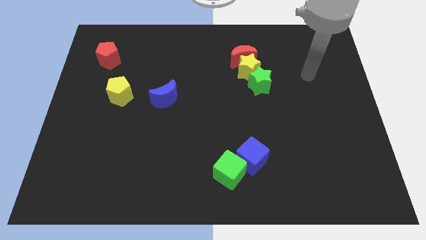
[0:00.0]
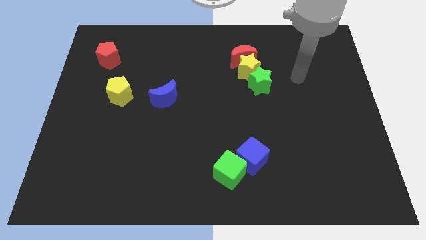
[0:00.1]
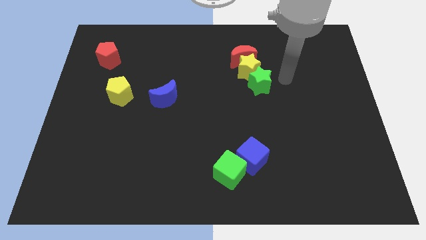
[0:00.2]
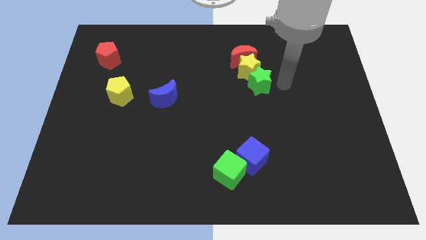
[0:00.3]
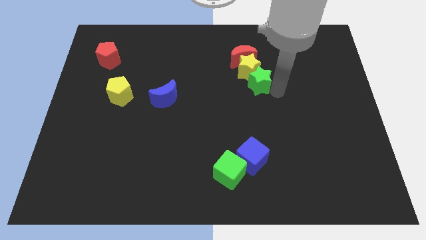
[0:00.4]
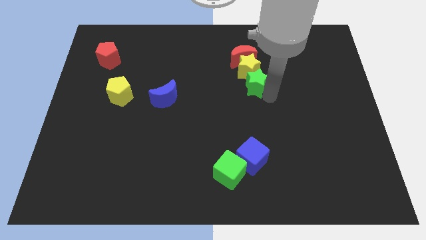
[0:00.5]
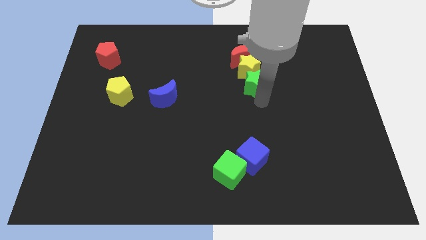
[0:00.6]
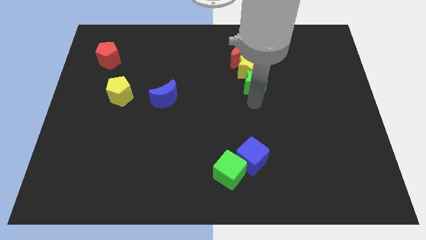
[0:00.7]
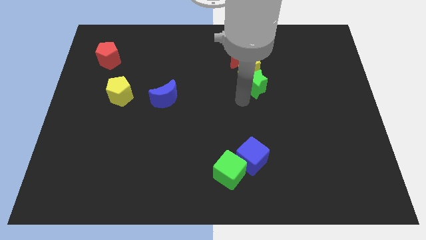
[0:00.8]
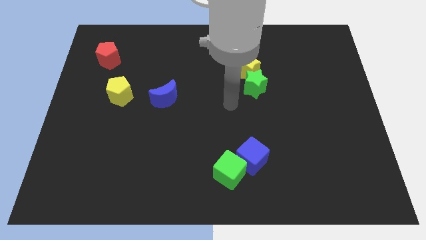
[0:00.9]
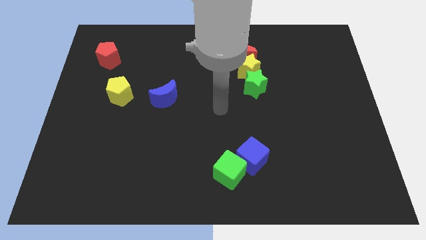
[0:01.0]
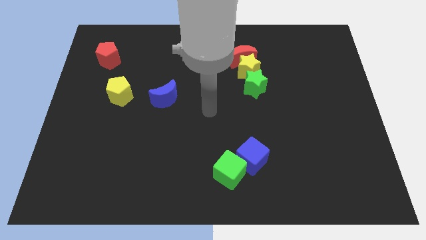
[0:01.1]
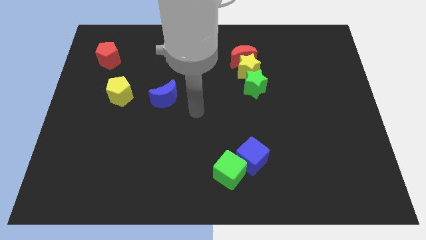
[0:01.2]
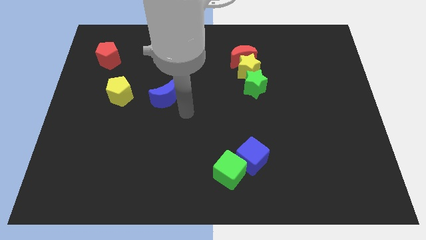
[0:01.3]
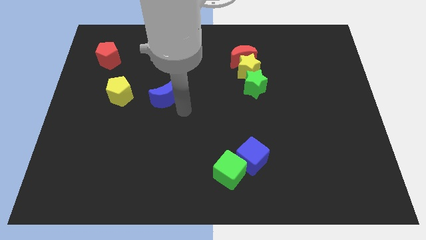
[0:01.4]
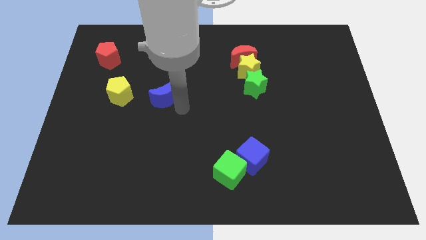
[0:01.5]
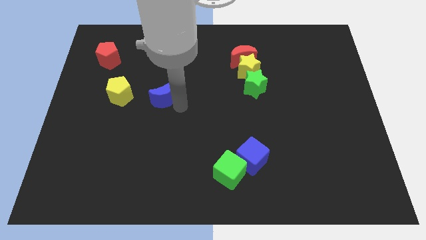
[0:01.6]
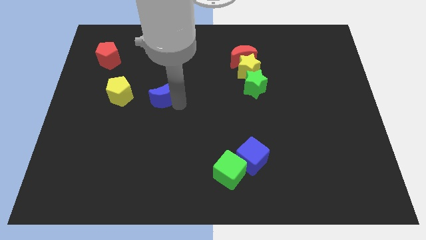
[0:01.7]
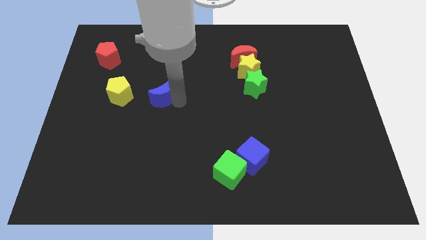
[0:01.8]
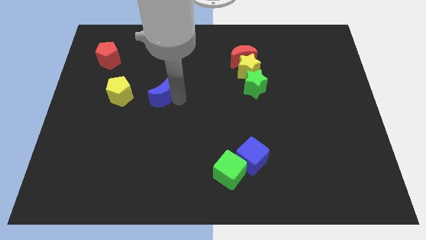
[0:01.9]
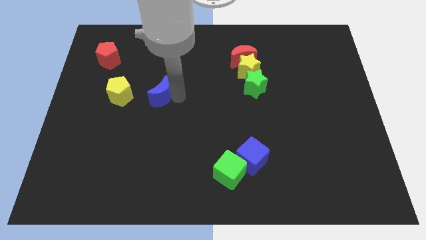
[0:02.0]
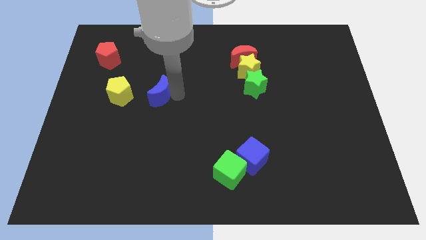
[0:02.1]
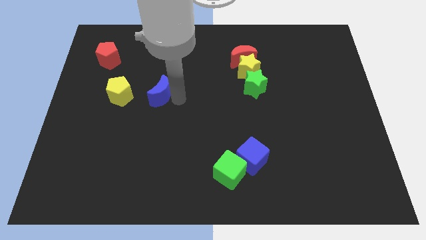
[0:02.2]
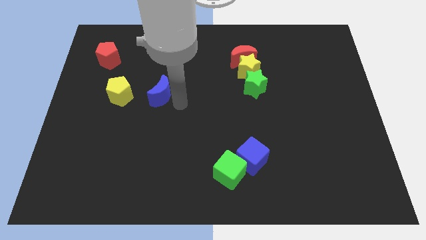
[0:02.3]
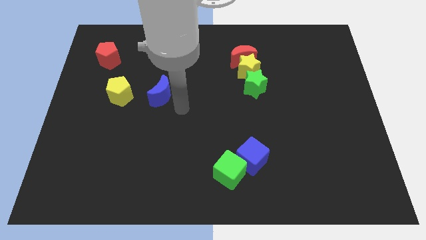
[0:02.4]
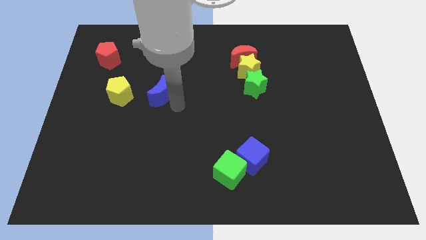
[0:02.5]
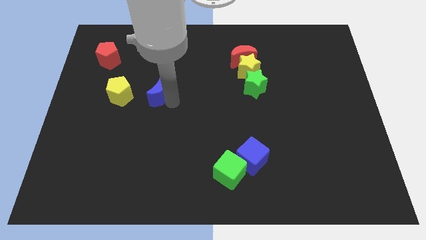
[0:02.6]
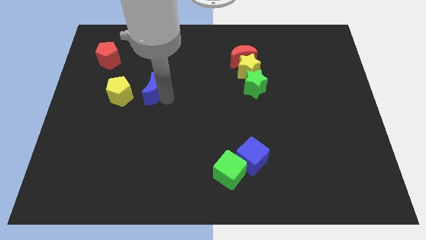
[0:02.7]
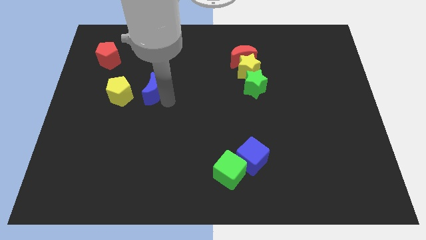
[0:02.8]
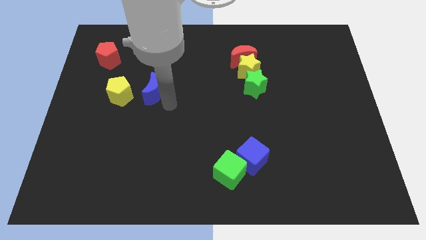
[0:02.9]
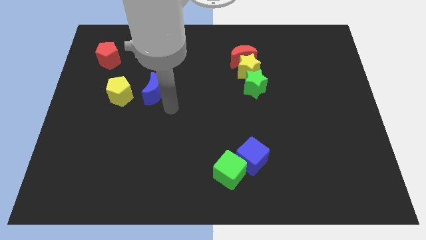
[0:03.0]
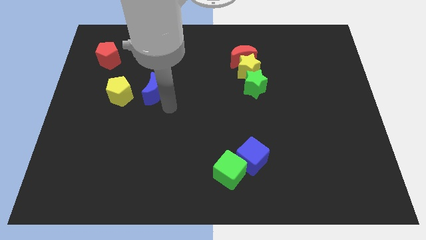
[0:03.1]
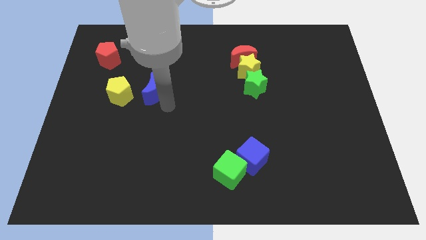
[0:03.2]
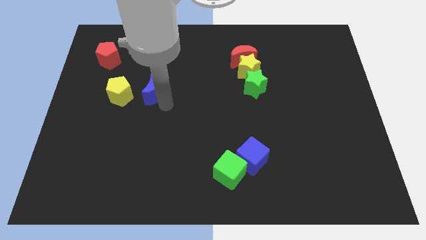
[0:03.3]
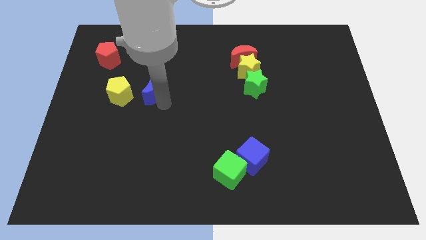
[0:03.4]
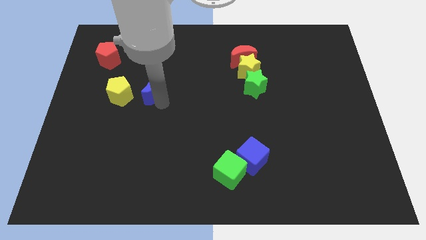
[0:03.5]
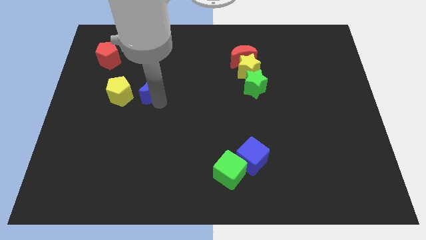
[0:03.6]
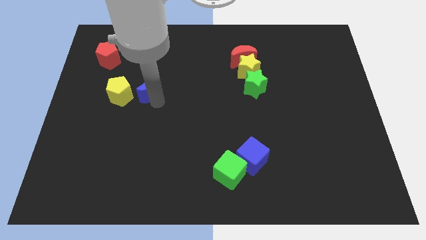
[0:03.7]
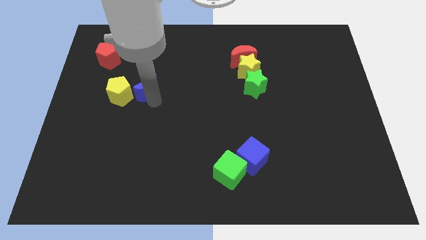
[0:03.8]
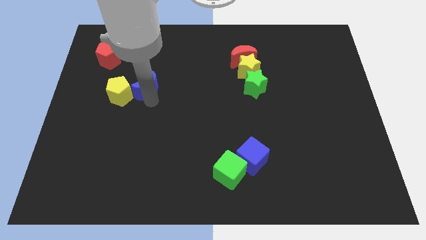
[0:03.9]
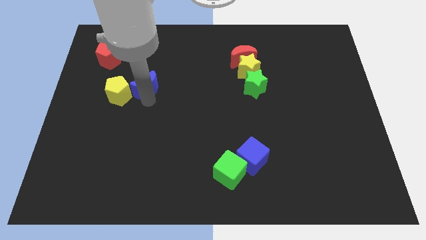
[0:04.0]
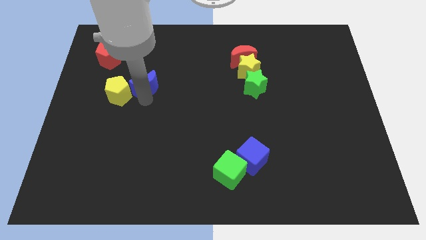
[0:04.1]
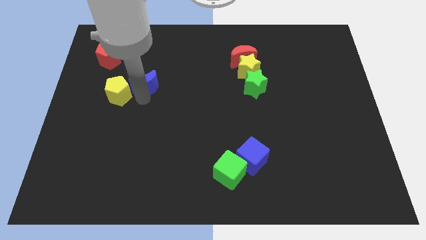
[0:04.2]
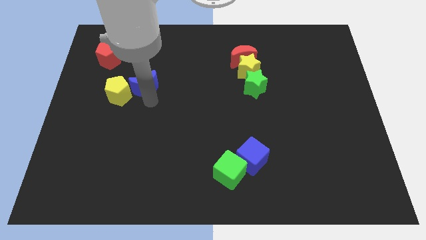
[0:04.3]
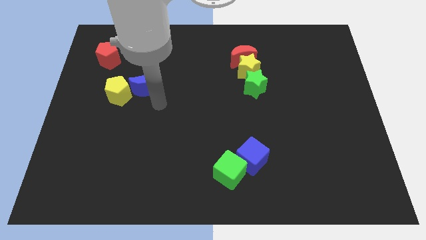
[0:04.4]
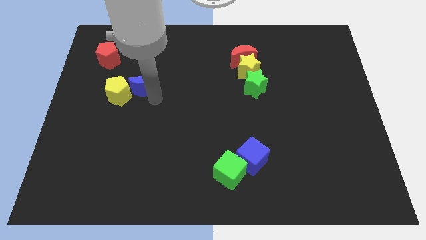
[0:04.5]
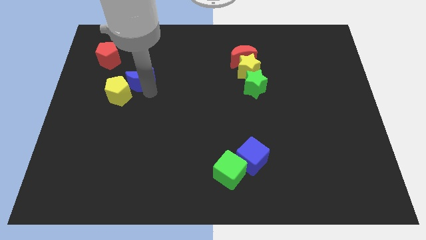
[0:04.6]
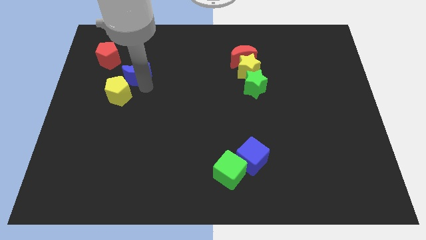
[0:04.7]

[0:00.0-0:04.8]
slide the blue moon to the top side of the yellow pentagon

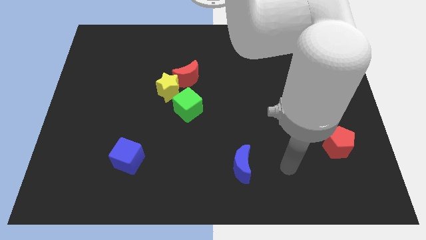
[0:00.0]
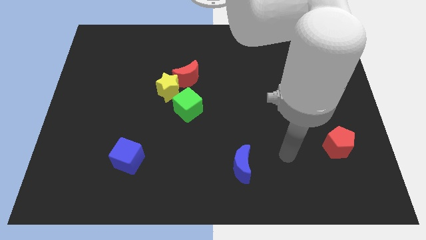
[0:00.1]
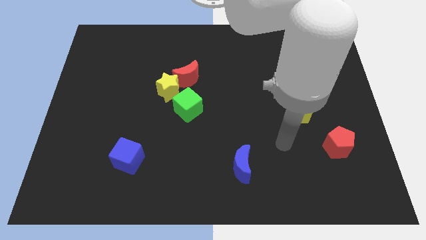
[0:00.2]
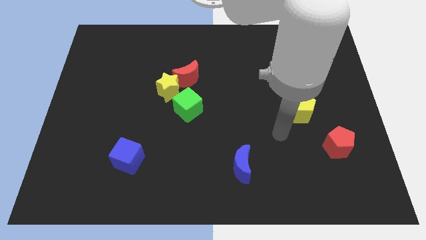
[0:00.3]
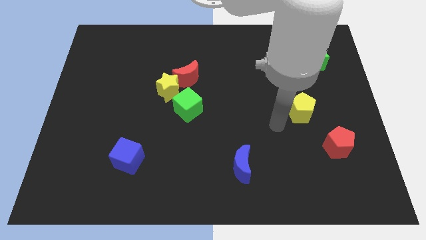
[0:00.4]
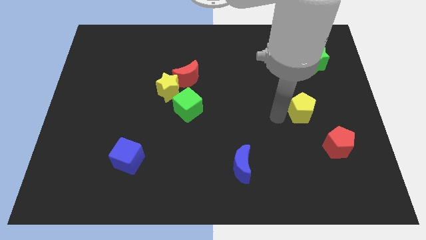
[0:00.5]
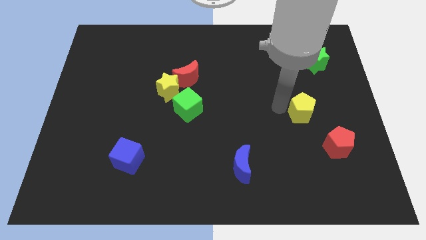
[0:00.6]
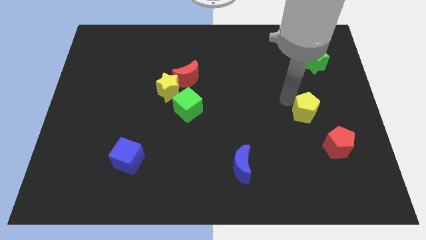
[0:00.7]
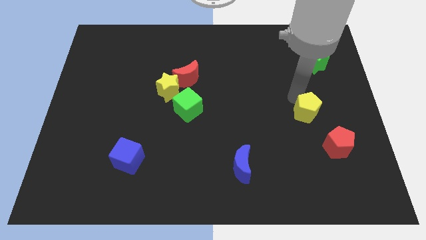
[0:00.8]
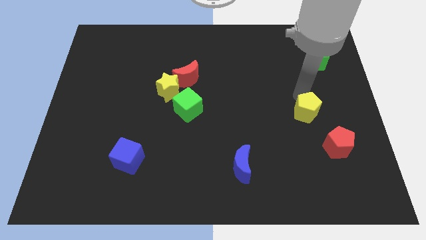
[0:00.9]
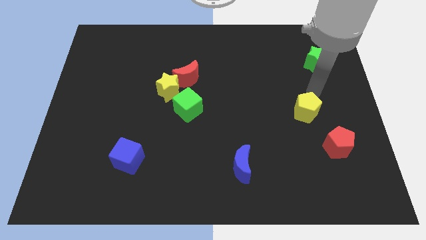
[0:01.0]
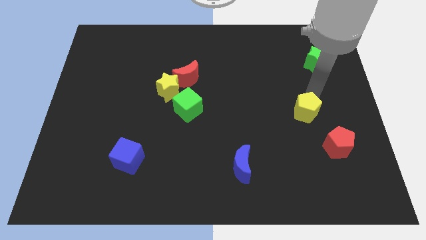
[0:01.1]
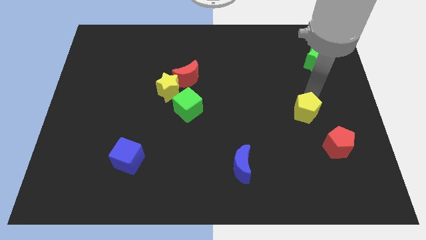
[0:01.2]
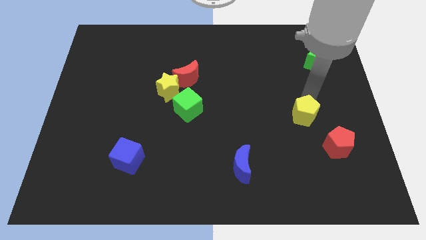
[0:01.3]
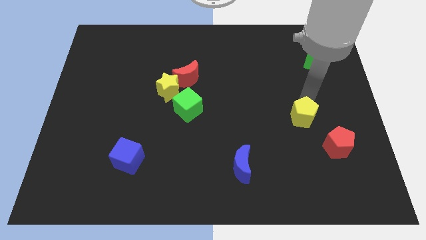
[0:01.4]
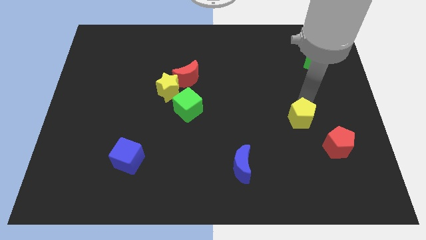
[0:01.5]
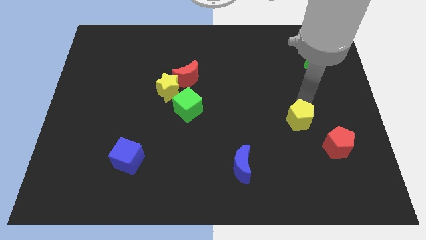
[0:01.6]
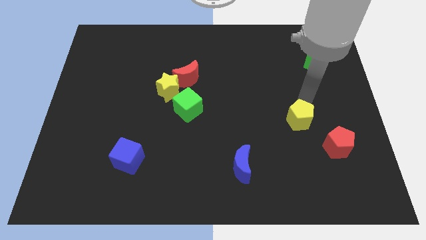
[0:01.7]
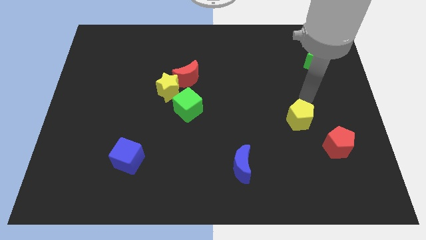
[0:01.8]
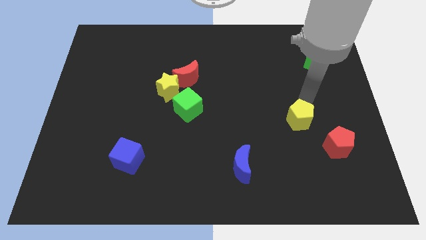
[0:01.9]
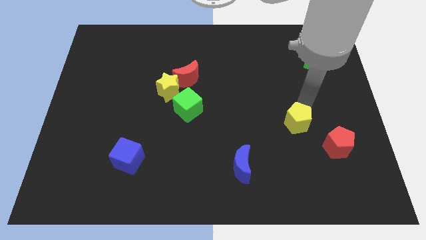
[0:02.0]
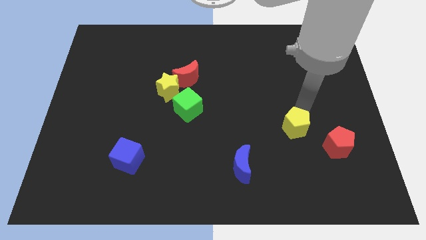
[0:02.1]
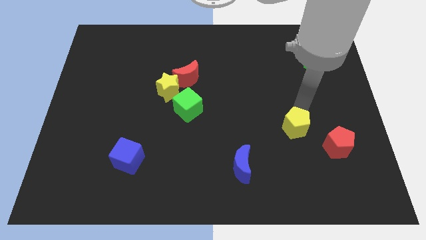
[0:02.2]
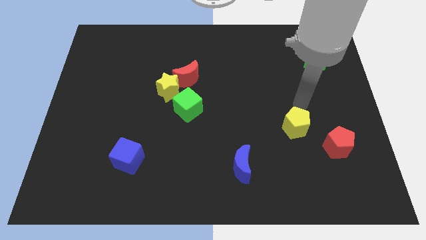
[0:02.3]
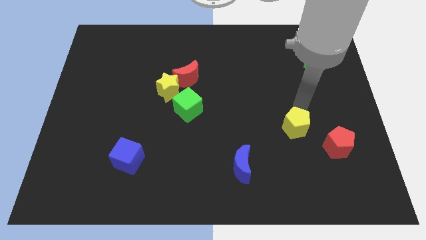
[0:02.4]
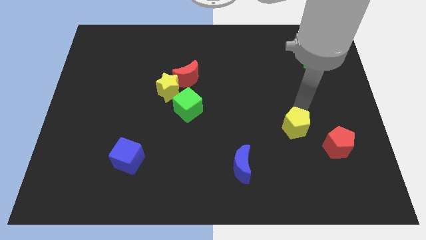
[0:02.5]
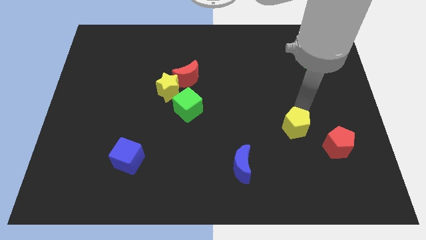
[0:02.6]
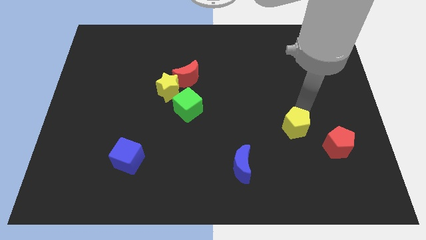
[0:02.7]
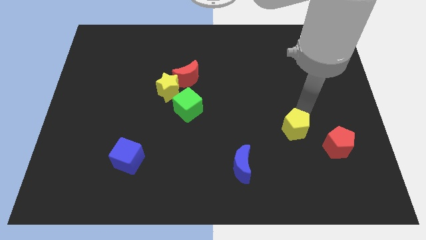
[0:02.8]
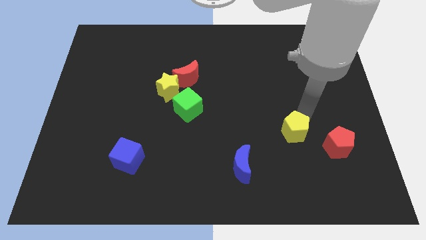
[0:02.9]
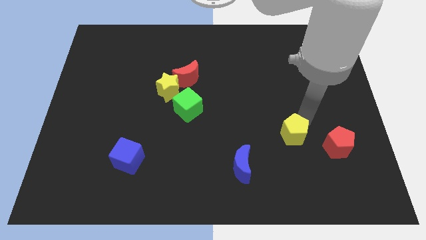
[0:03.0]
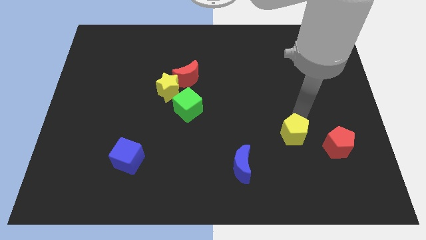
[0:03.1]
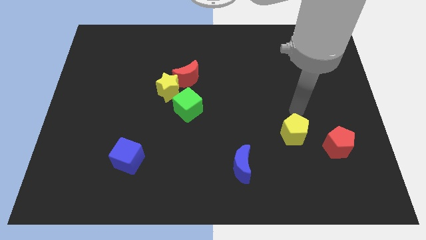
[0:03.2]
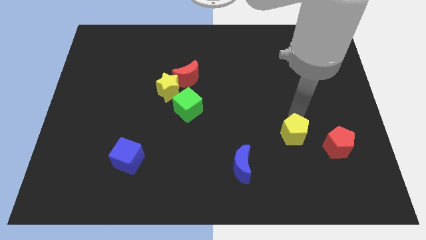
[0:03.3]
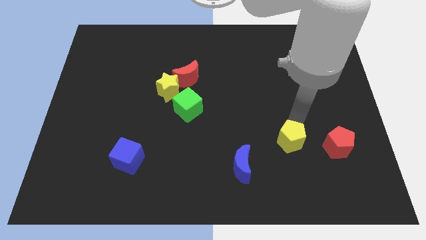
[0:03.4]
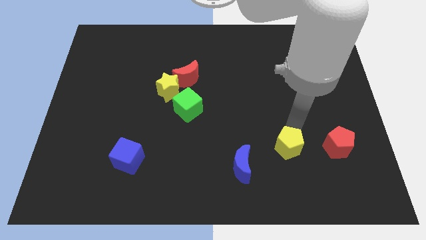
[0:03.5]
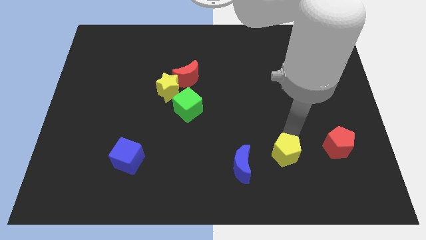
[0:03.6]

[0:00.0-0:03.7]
put the yellow pentagon right of the blue moon

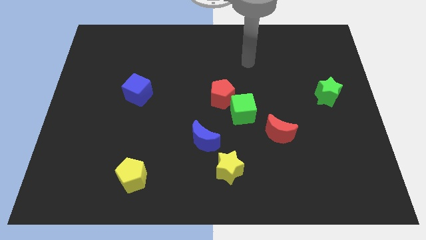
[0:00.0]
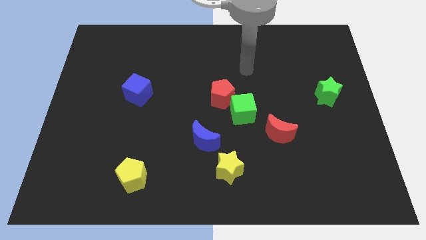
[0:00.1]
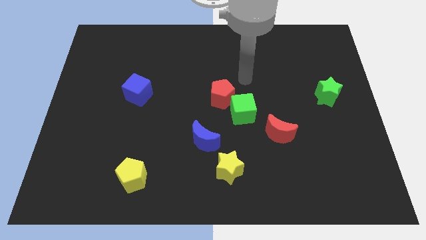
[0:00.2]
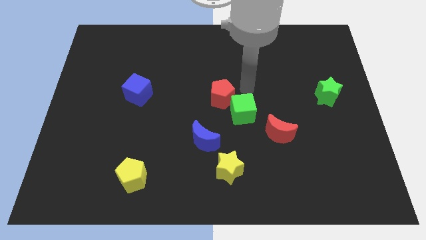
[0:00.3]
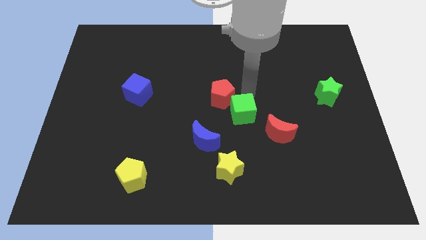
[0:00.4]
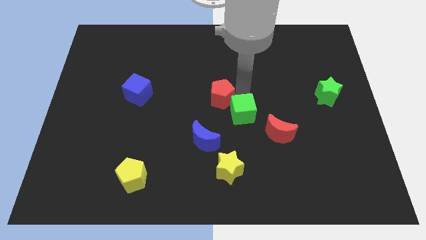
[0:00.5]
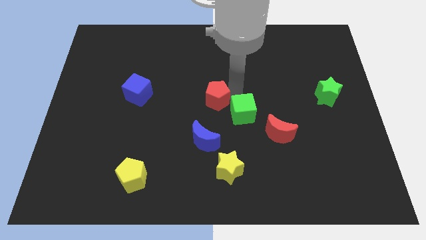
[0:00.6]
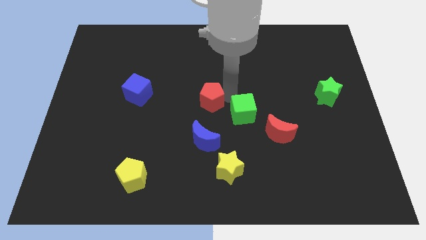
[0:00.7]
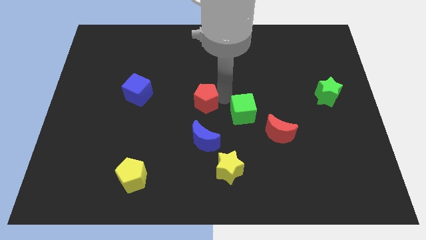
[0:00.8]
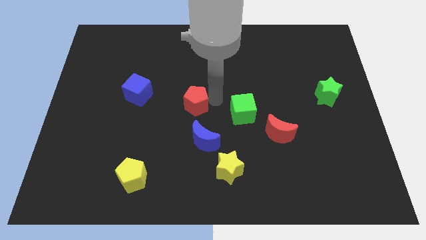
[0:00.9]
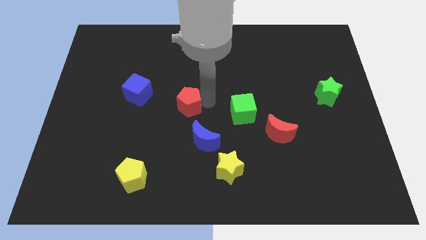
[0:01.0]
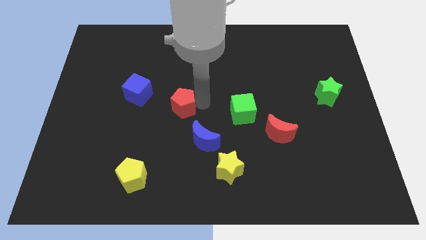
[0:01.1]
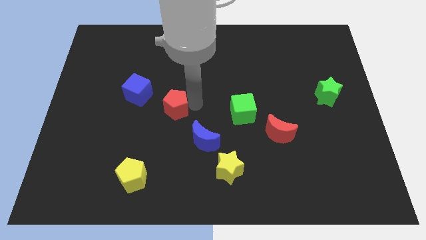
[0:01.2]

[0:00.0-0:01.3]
move the red pentagon to the bottom right of the blue cube
